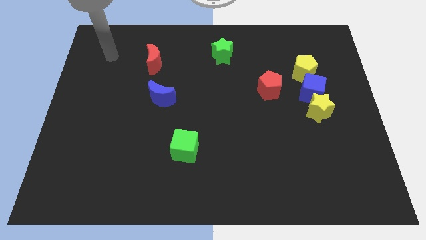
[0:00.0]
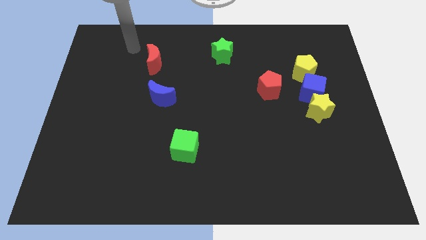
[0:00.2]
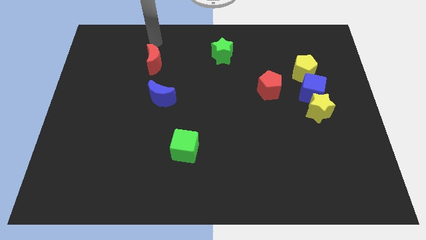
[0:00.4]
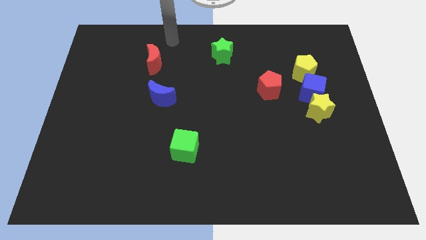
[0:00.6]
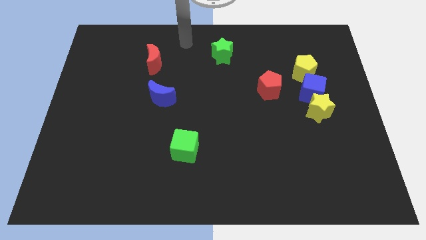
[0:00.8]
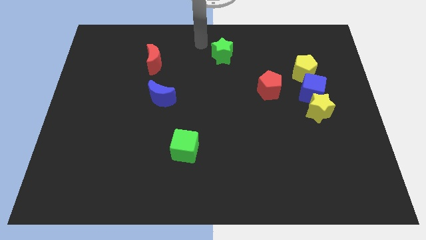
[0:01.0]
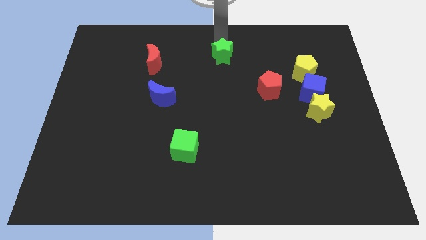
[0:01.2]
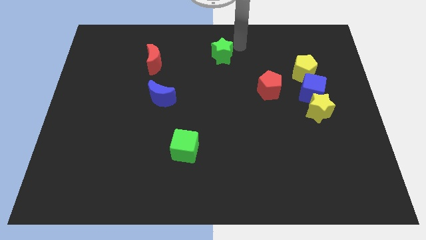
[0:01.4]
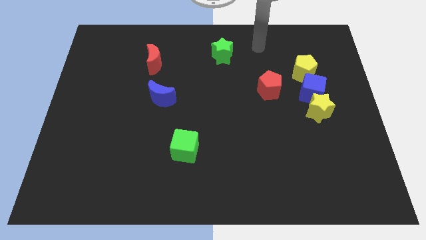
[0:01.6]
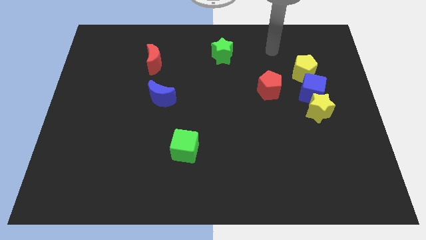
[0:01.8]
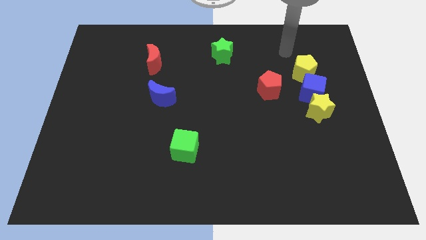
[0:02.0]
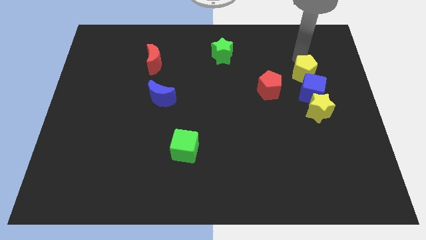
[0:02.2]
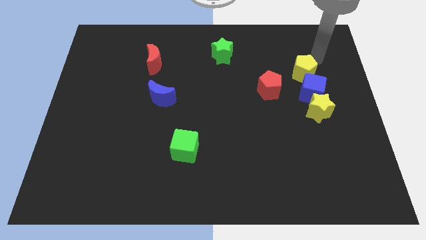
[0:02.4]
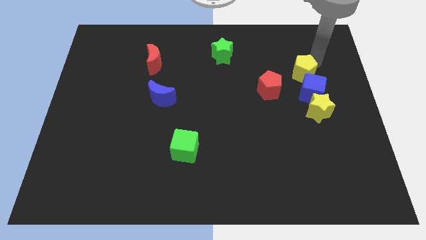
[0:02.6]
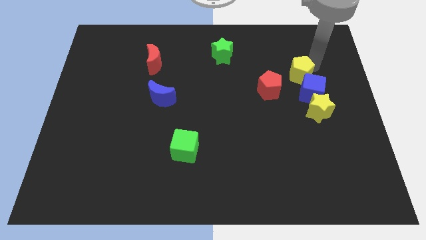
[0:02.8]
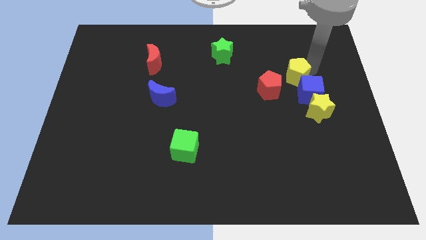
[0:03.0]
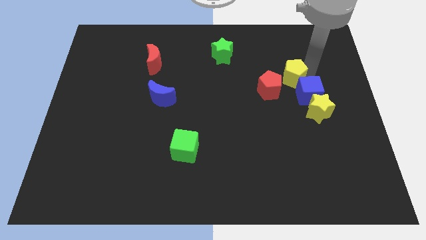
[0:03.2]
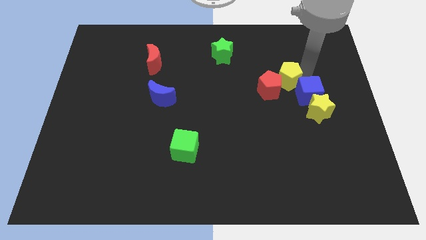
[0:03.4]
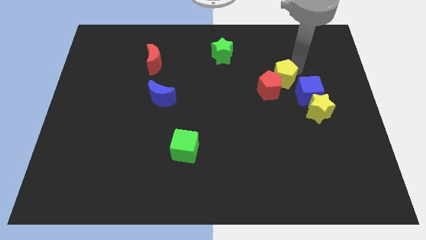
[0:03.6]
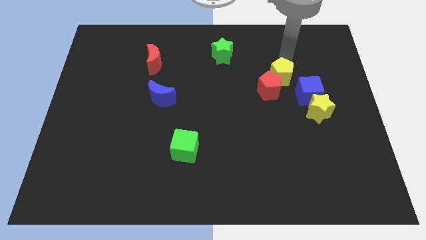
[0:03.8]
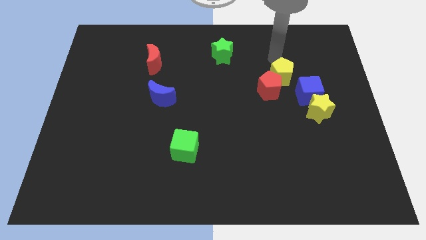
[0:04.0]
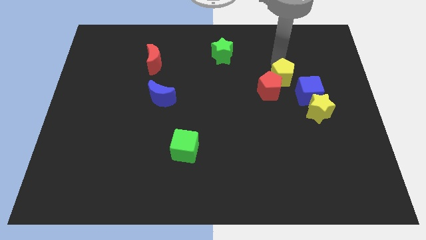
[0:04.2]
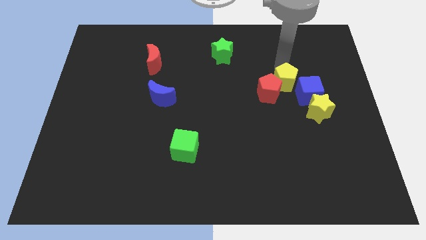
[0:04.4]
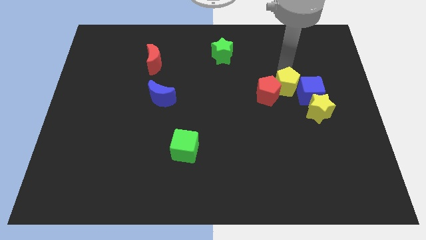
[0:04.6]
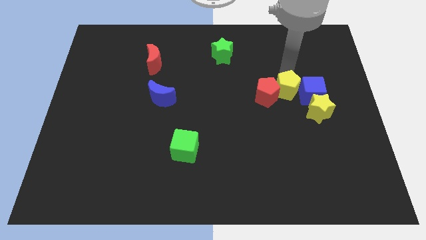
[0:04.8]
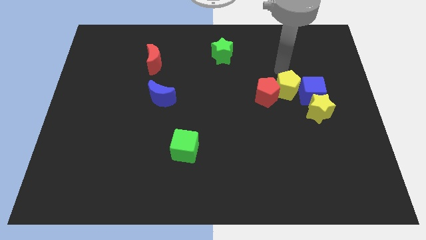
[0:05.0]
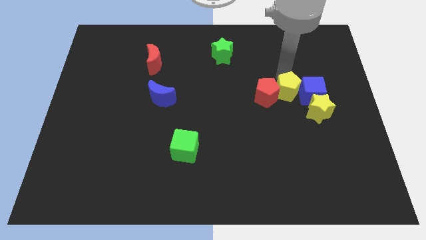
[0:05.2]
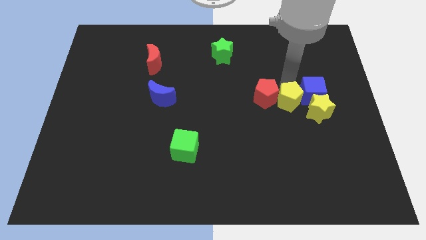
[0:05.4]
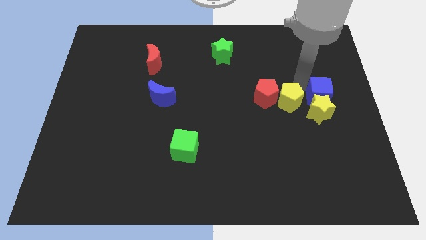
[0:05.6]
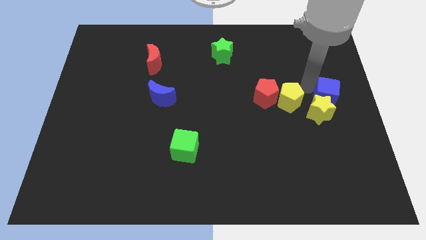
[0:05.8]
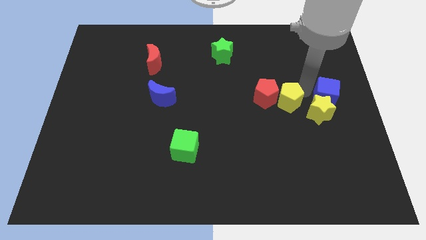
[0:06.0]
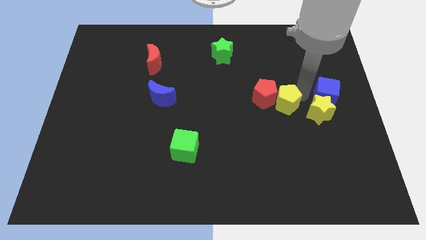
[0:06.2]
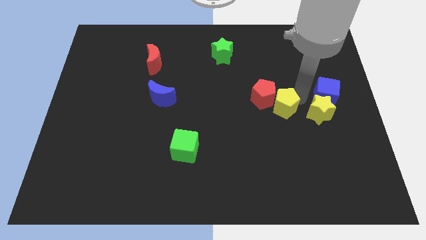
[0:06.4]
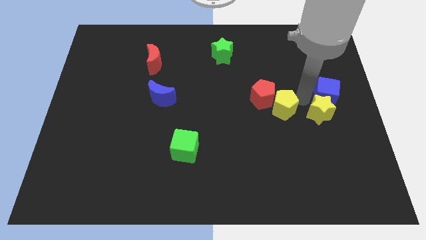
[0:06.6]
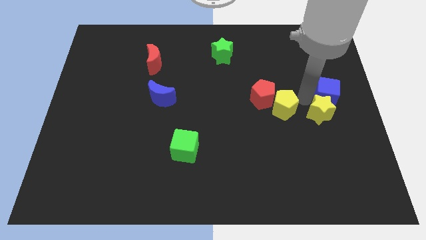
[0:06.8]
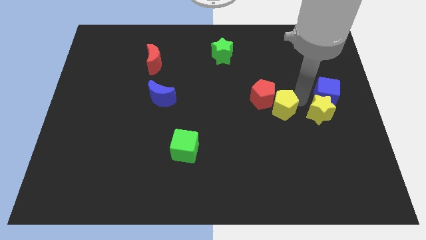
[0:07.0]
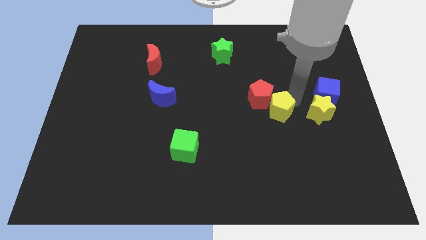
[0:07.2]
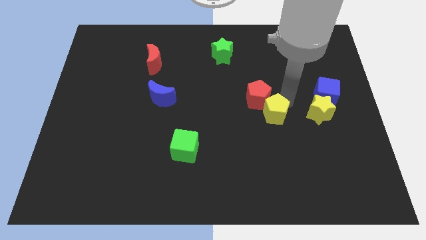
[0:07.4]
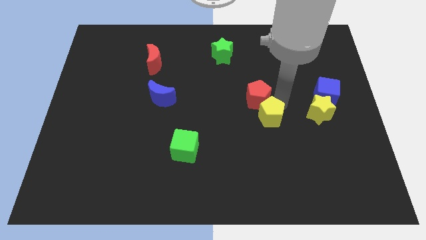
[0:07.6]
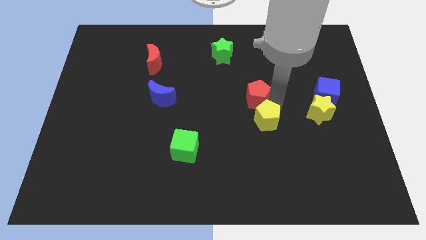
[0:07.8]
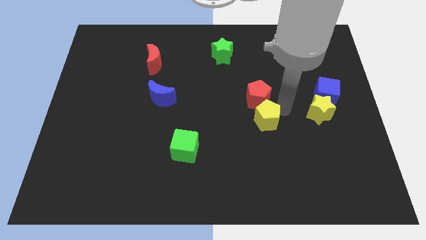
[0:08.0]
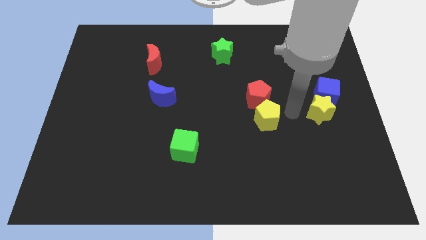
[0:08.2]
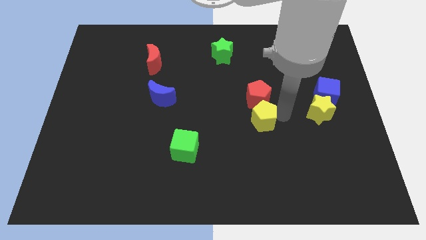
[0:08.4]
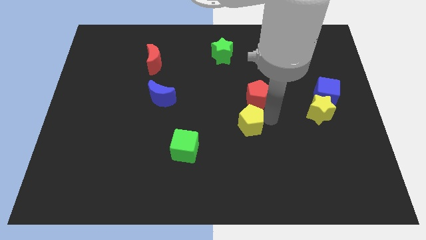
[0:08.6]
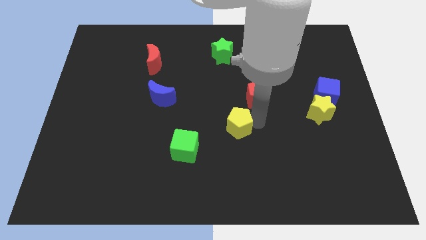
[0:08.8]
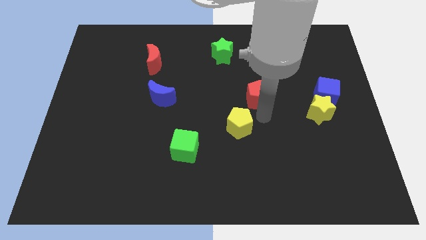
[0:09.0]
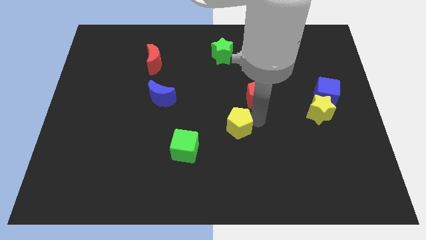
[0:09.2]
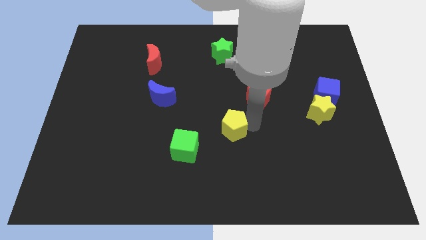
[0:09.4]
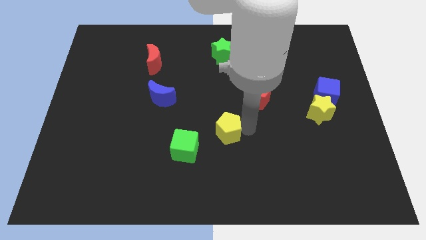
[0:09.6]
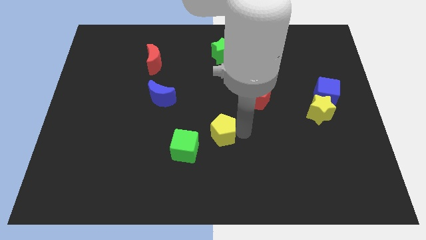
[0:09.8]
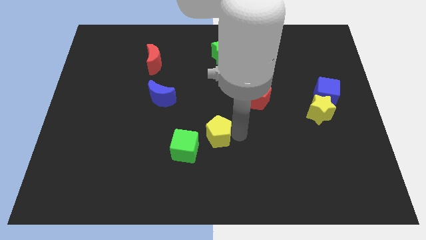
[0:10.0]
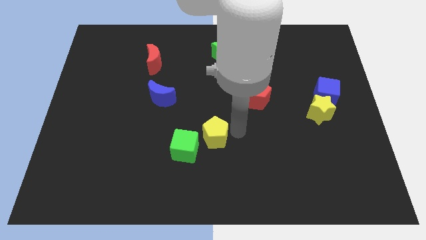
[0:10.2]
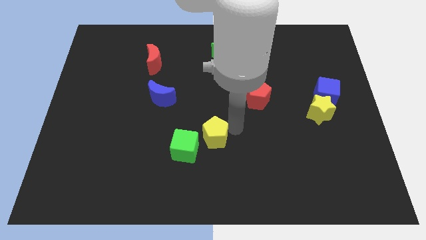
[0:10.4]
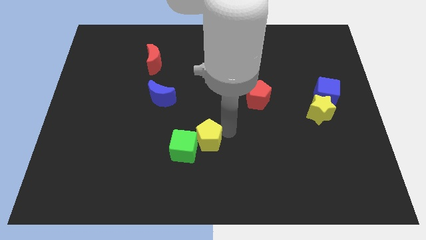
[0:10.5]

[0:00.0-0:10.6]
slide the yellow pentagon towards the green cube
